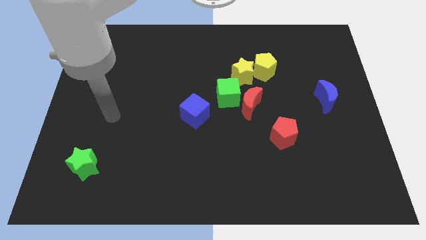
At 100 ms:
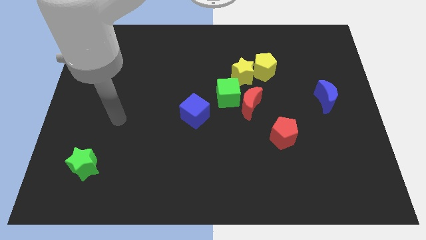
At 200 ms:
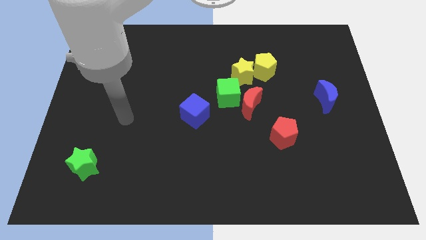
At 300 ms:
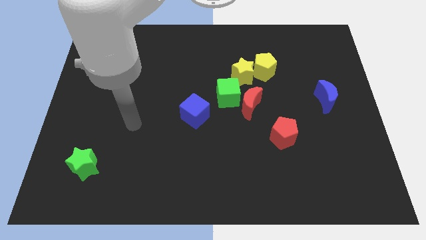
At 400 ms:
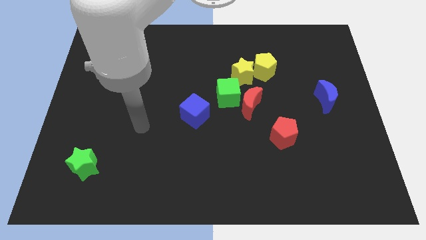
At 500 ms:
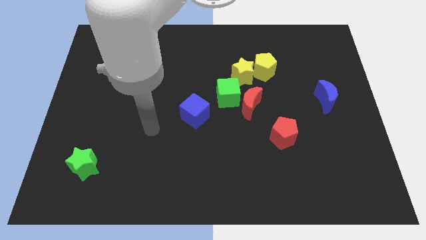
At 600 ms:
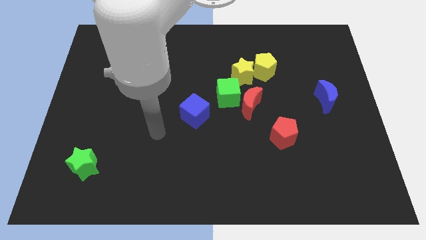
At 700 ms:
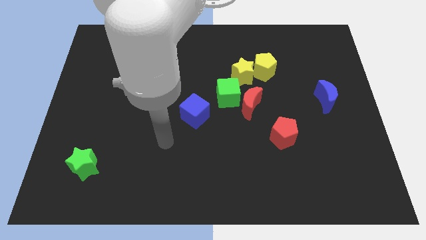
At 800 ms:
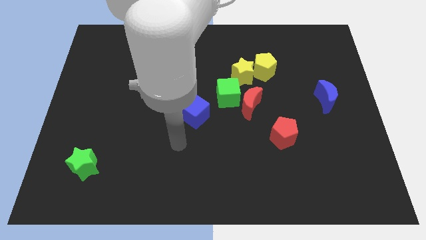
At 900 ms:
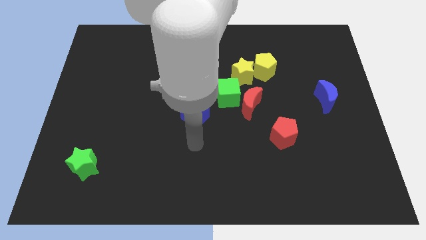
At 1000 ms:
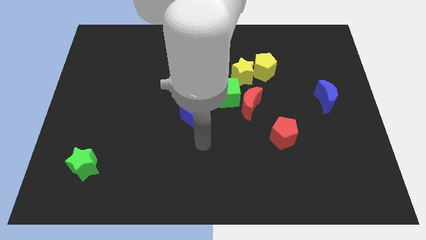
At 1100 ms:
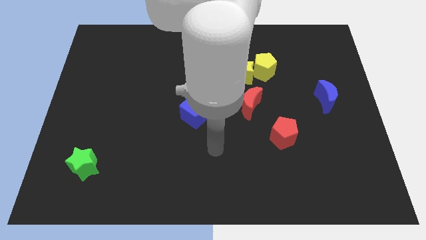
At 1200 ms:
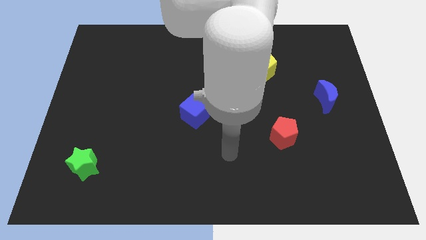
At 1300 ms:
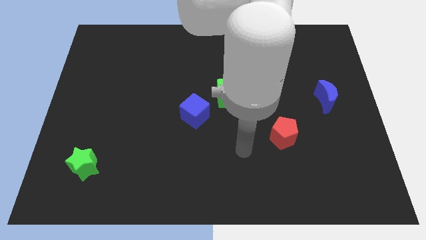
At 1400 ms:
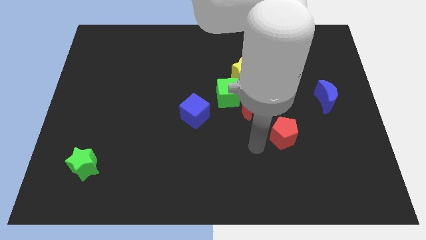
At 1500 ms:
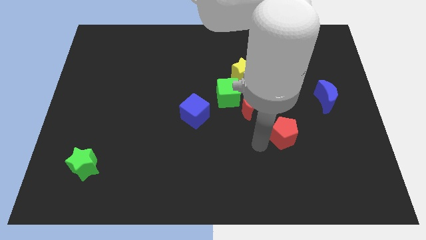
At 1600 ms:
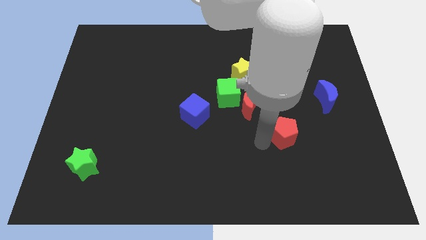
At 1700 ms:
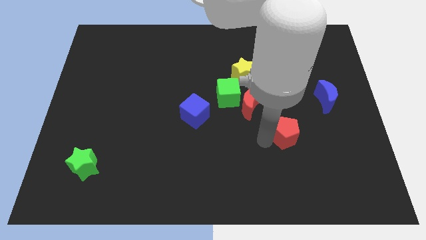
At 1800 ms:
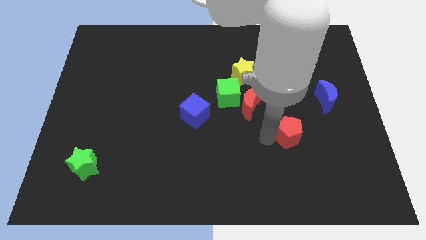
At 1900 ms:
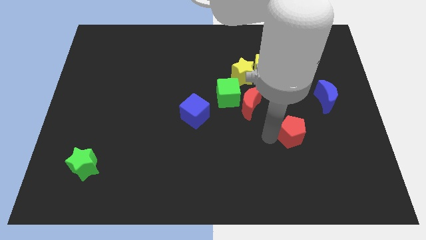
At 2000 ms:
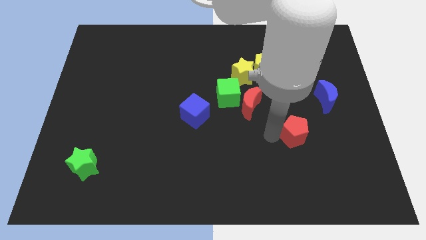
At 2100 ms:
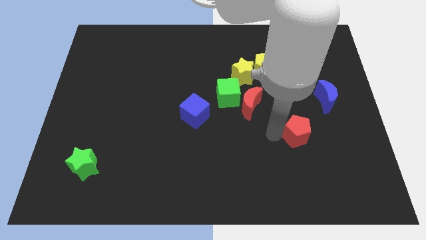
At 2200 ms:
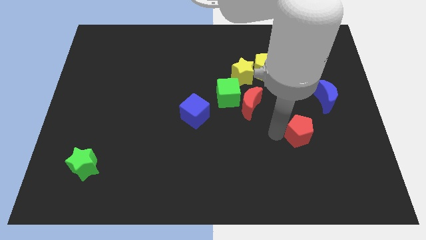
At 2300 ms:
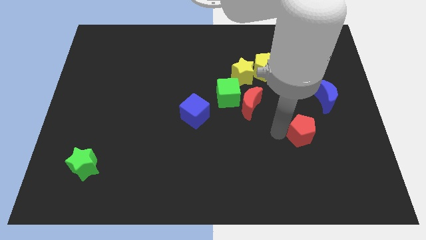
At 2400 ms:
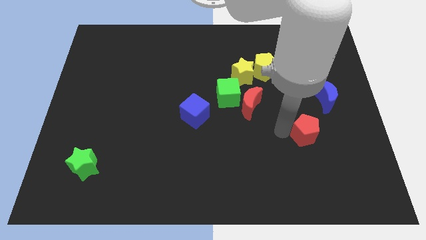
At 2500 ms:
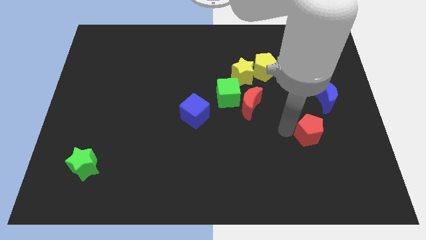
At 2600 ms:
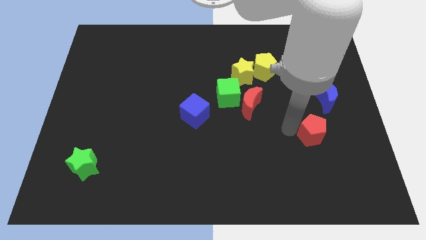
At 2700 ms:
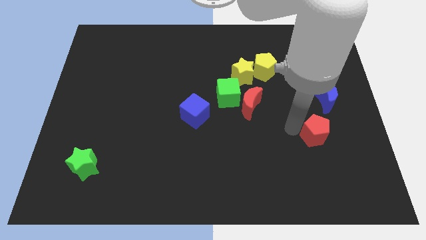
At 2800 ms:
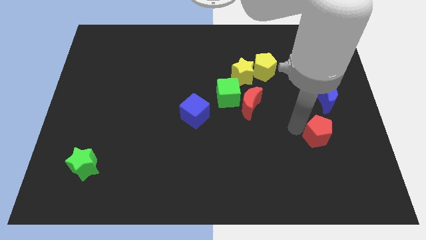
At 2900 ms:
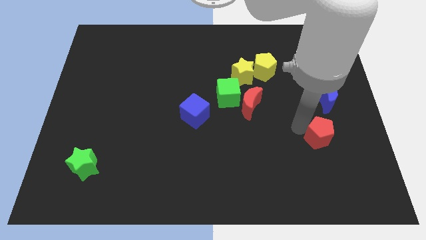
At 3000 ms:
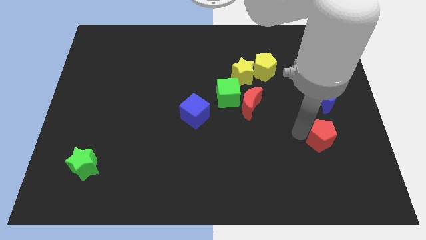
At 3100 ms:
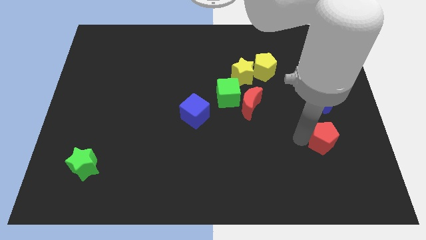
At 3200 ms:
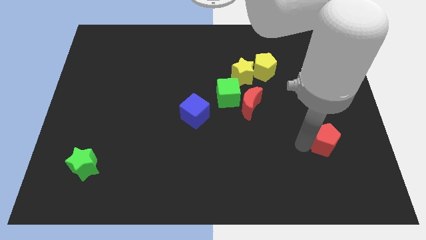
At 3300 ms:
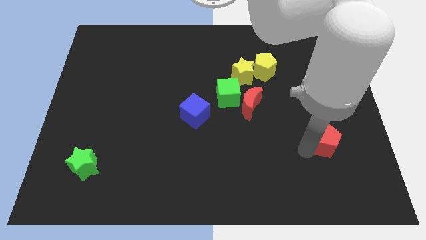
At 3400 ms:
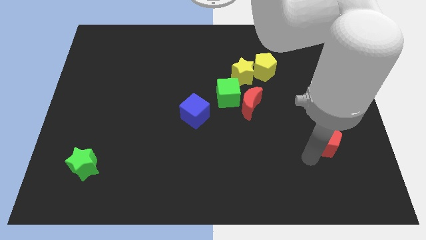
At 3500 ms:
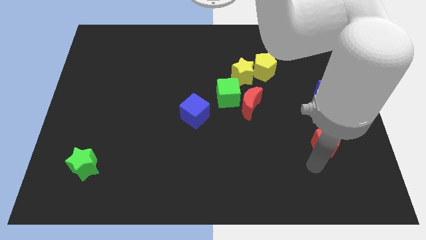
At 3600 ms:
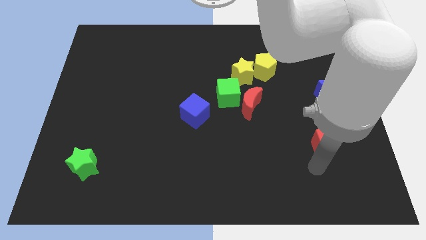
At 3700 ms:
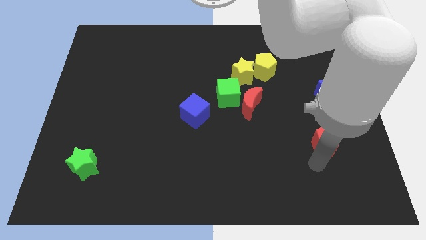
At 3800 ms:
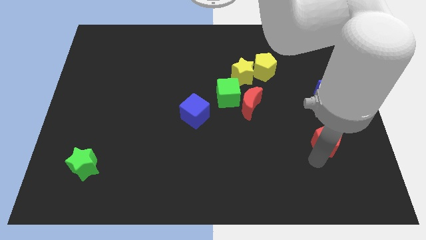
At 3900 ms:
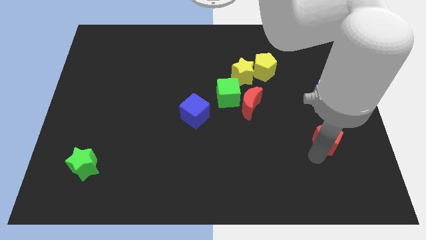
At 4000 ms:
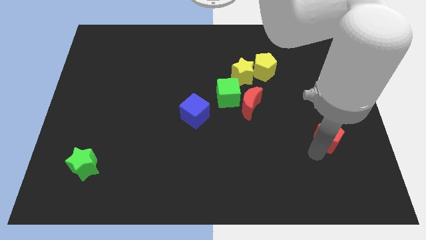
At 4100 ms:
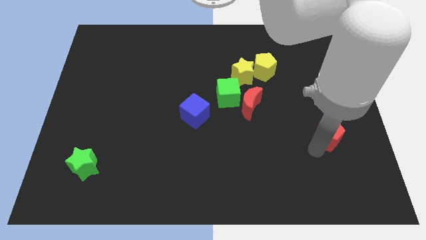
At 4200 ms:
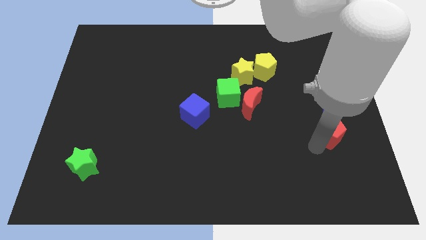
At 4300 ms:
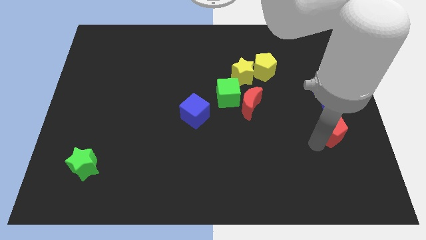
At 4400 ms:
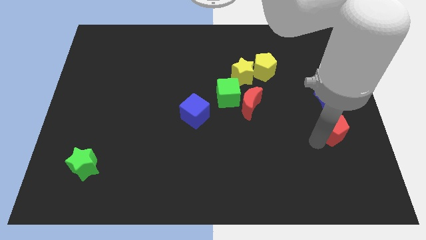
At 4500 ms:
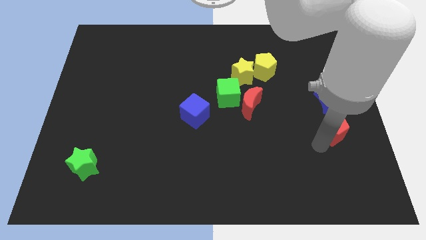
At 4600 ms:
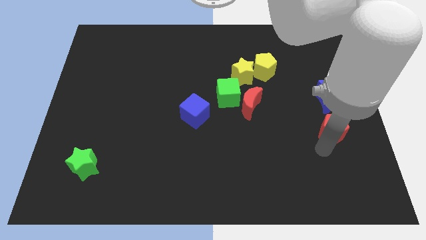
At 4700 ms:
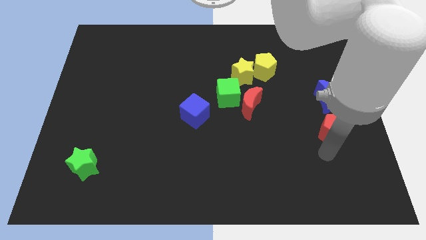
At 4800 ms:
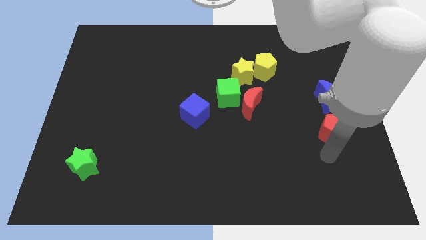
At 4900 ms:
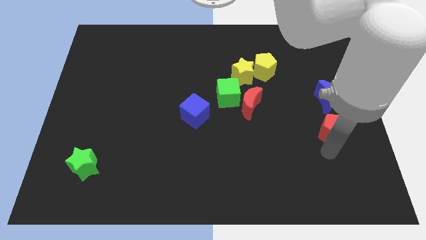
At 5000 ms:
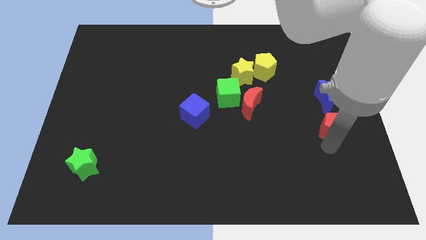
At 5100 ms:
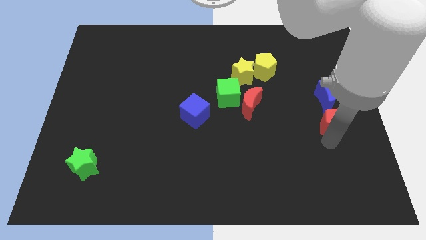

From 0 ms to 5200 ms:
slide the red pentagon to the right side

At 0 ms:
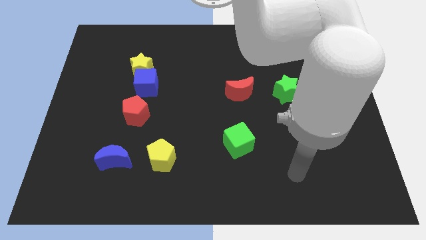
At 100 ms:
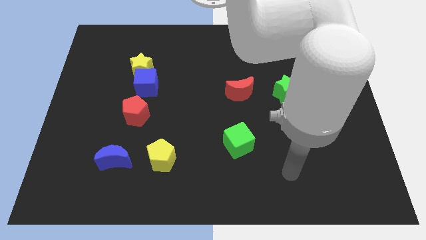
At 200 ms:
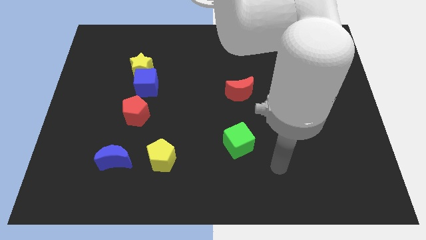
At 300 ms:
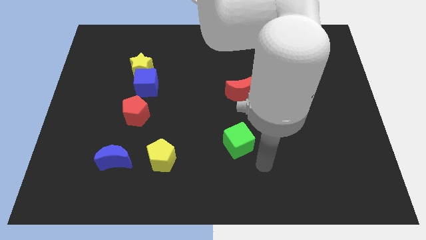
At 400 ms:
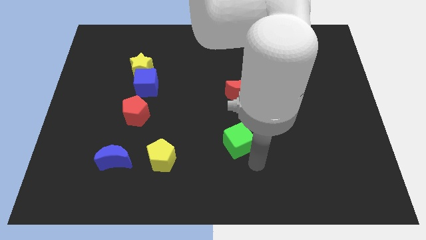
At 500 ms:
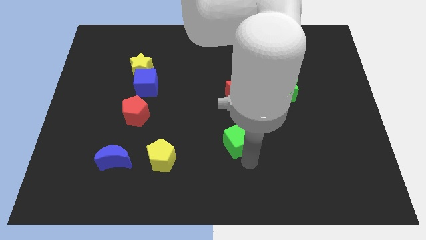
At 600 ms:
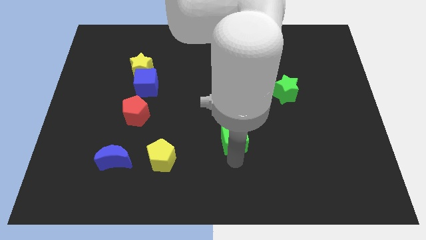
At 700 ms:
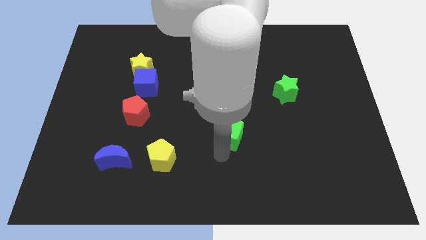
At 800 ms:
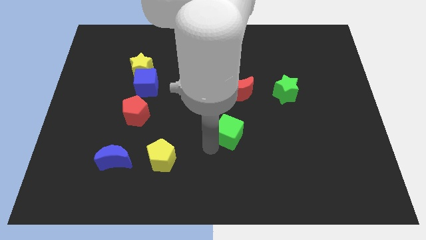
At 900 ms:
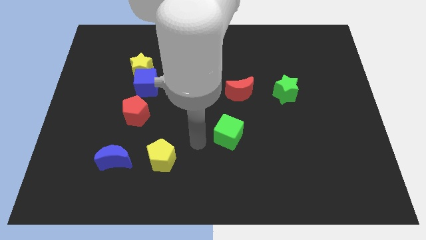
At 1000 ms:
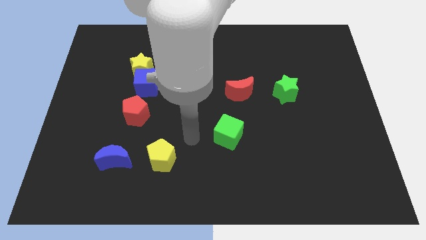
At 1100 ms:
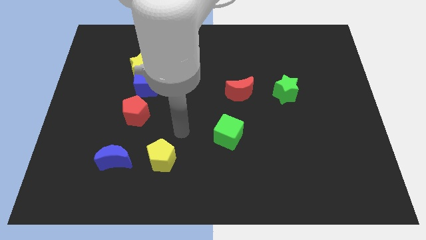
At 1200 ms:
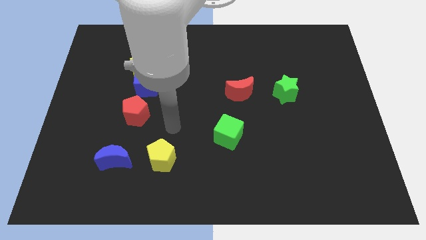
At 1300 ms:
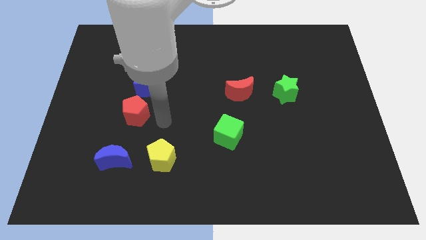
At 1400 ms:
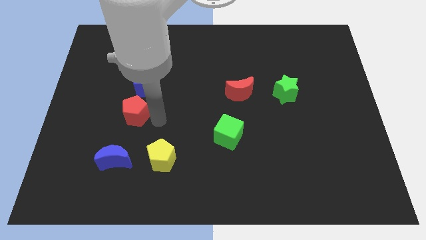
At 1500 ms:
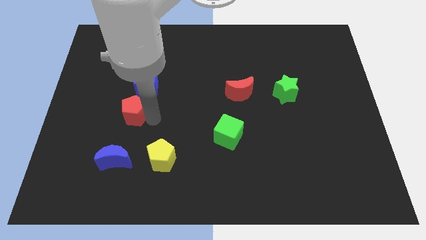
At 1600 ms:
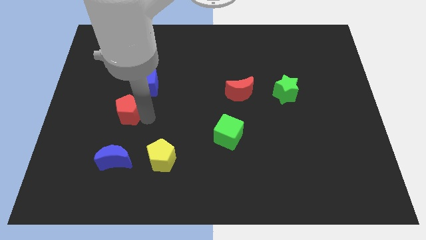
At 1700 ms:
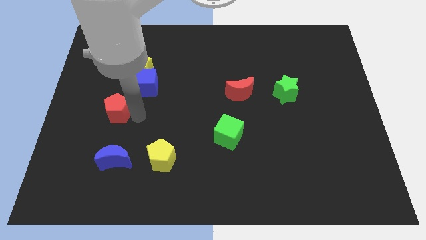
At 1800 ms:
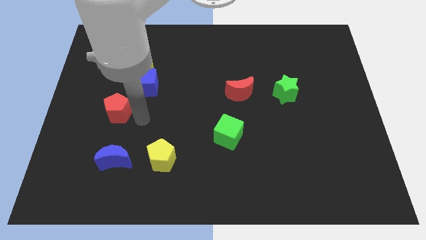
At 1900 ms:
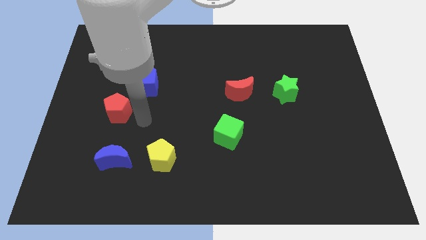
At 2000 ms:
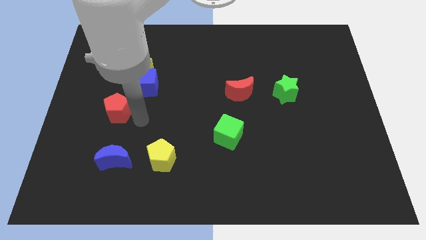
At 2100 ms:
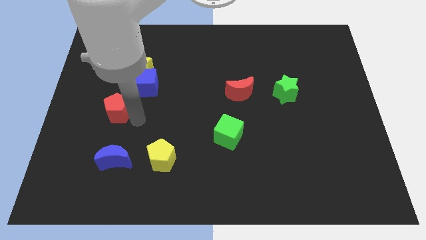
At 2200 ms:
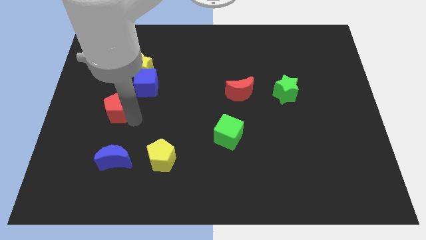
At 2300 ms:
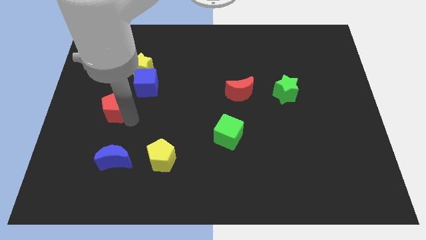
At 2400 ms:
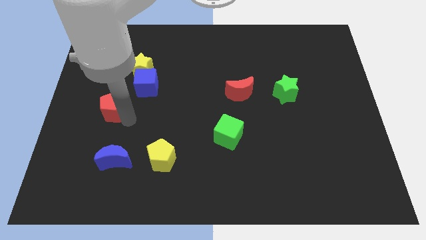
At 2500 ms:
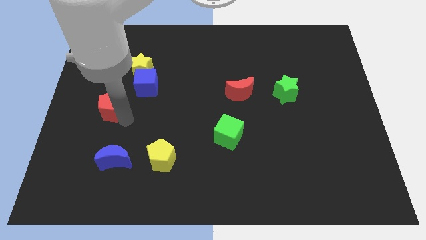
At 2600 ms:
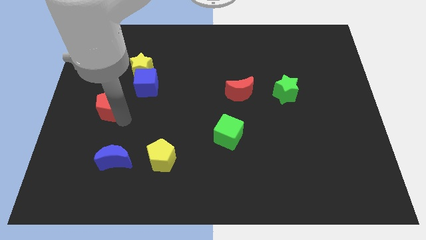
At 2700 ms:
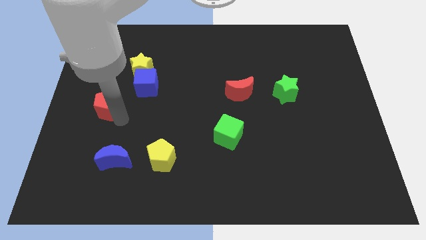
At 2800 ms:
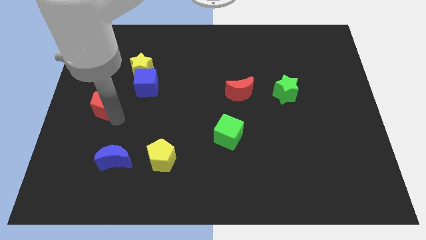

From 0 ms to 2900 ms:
move the red pentagon to the left side
